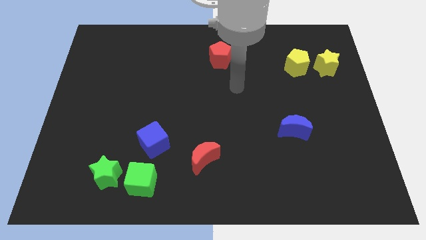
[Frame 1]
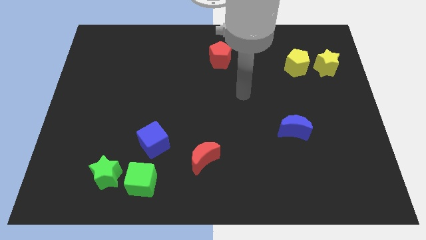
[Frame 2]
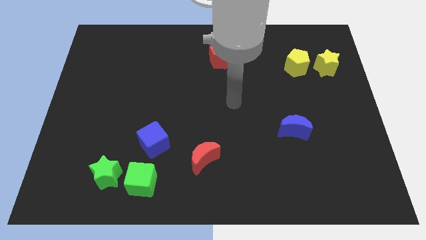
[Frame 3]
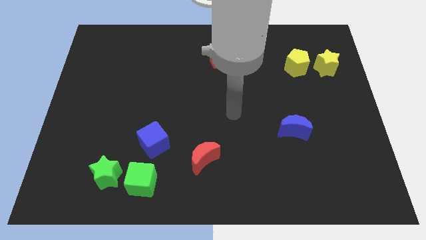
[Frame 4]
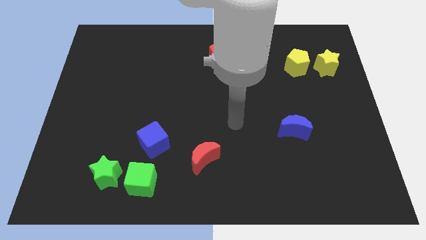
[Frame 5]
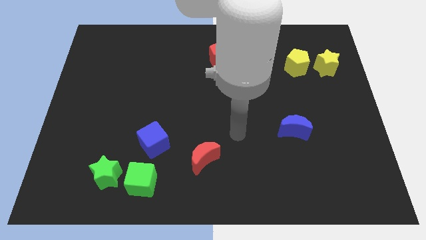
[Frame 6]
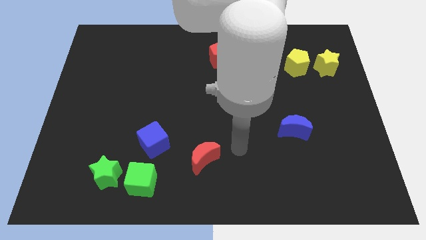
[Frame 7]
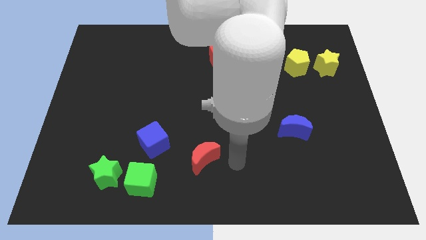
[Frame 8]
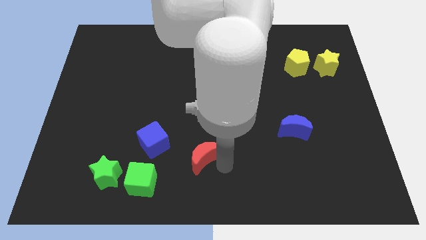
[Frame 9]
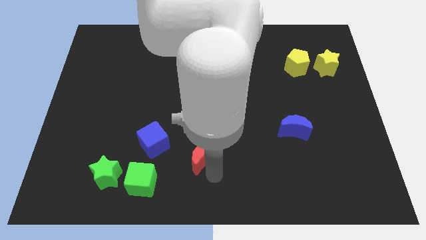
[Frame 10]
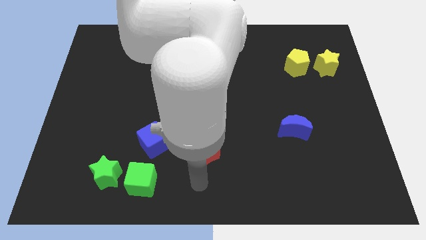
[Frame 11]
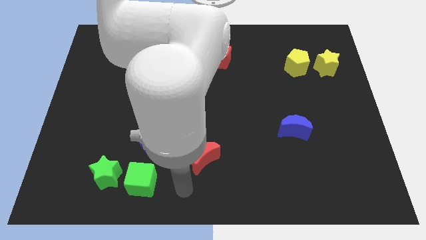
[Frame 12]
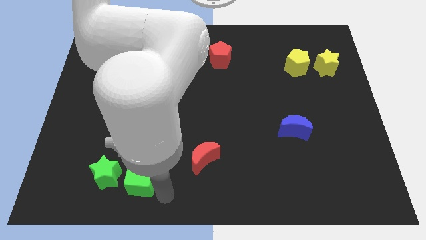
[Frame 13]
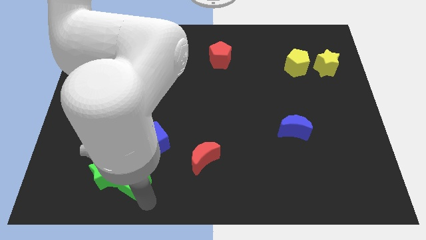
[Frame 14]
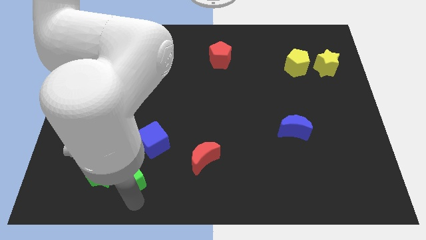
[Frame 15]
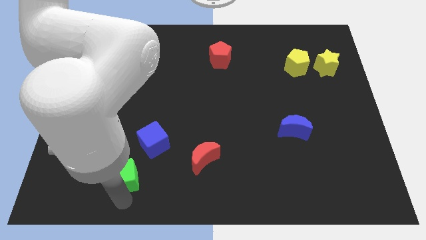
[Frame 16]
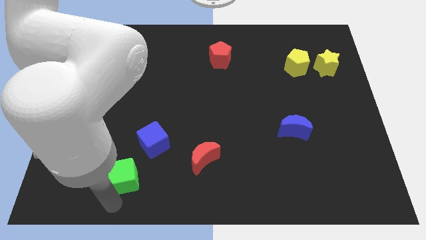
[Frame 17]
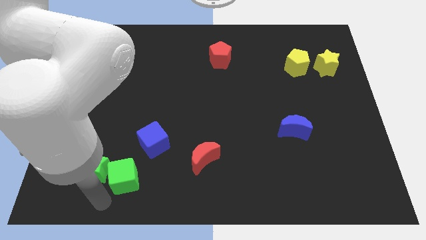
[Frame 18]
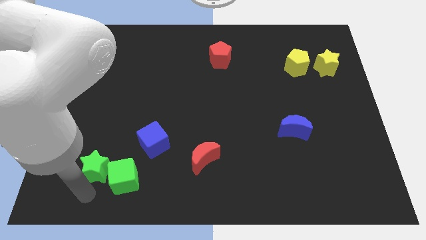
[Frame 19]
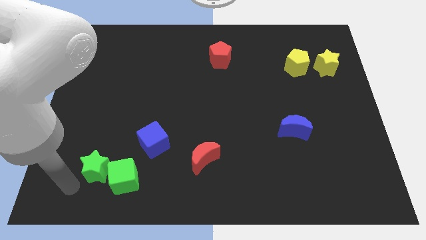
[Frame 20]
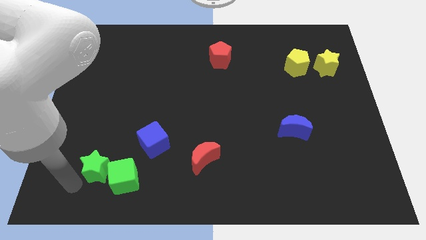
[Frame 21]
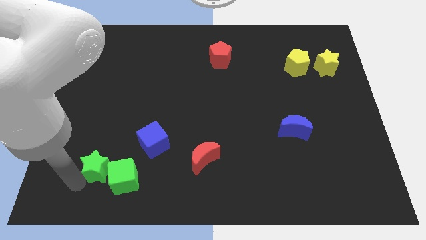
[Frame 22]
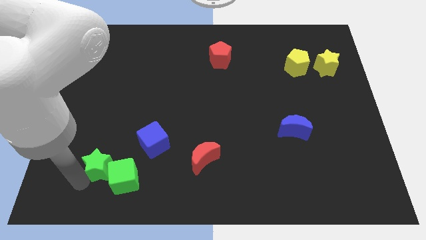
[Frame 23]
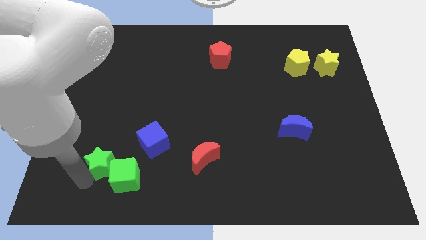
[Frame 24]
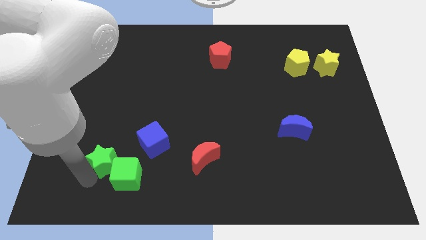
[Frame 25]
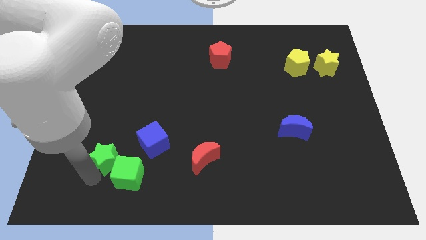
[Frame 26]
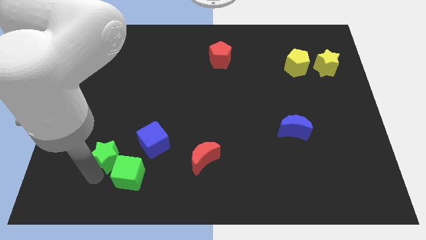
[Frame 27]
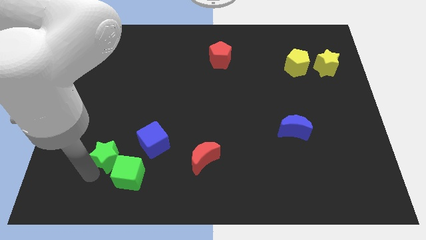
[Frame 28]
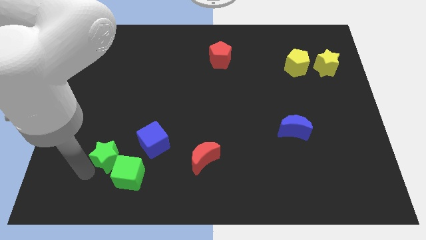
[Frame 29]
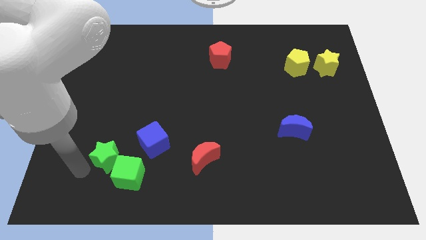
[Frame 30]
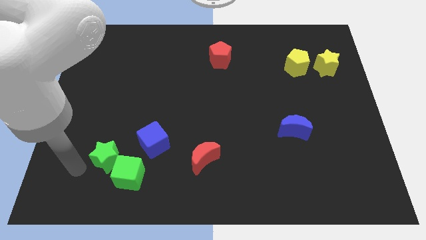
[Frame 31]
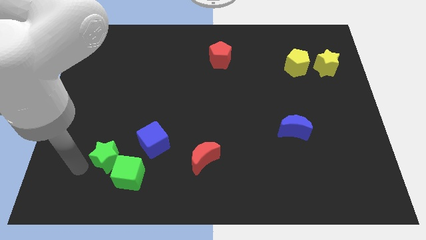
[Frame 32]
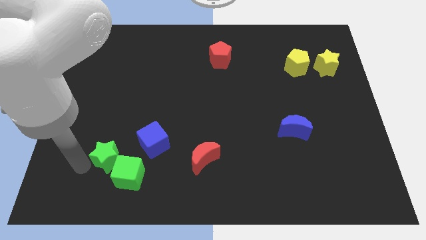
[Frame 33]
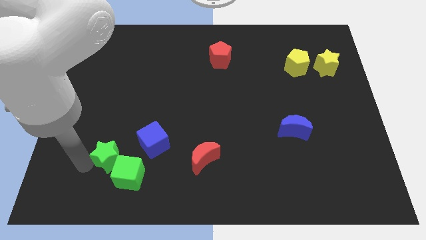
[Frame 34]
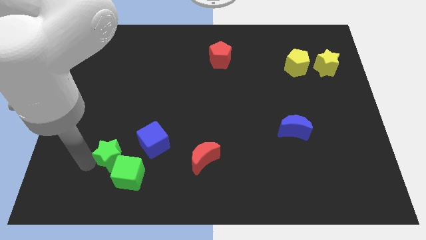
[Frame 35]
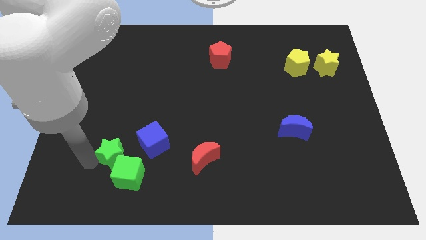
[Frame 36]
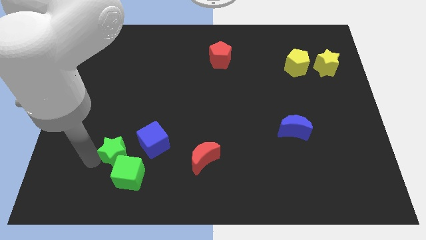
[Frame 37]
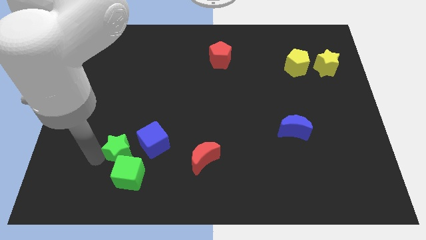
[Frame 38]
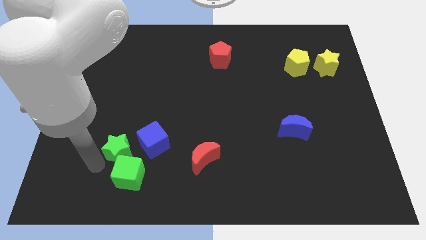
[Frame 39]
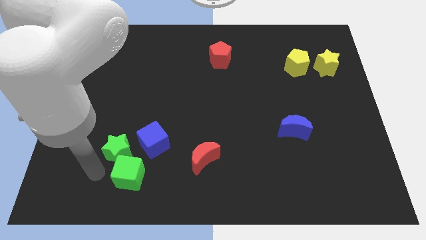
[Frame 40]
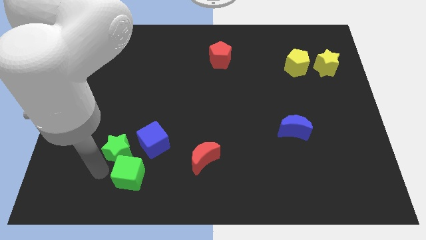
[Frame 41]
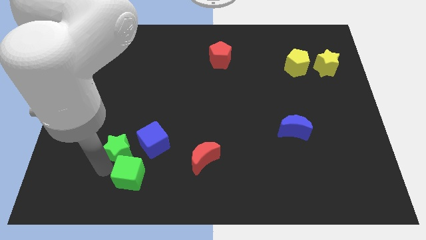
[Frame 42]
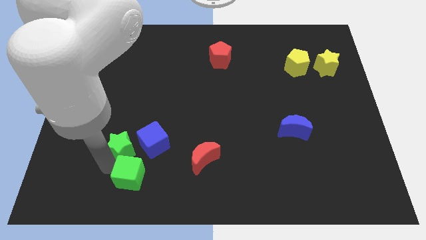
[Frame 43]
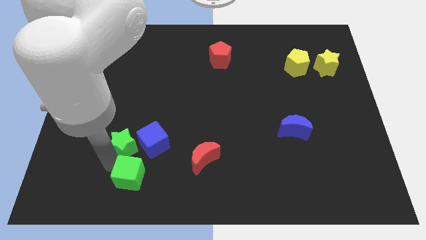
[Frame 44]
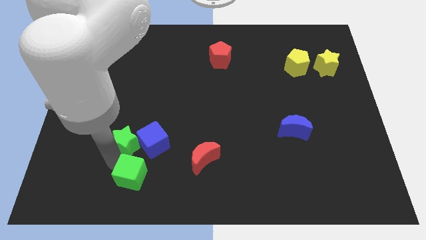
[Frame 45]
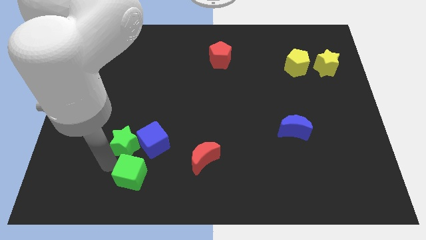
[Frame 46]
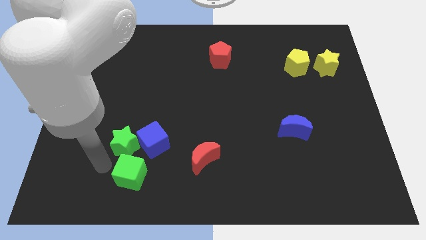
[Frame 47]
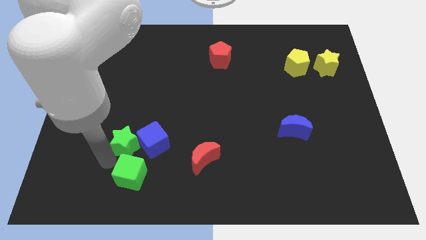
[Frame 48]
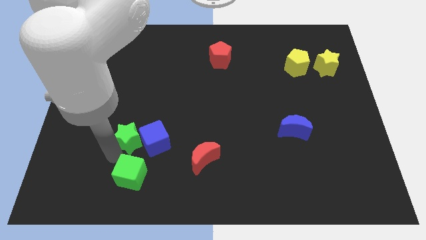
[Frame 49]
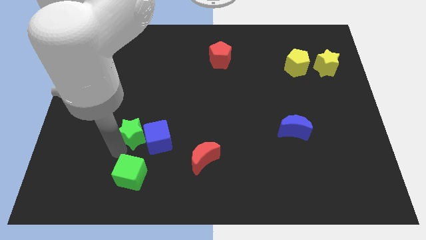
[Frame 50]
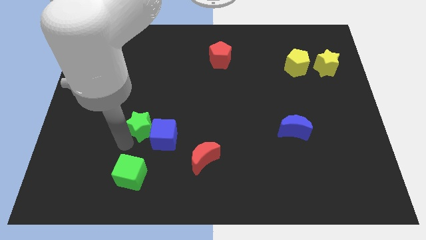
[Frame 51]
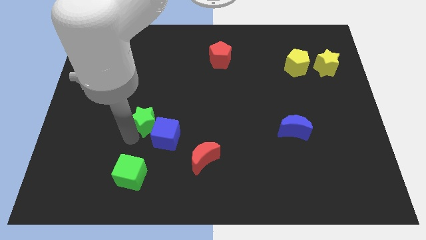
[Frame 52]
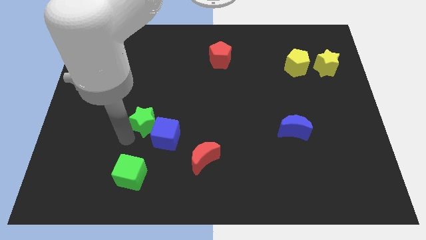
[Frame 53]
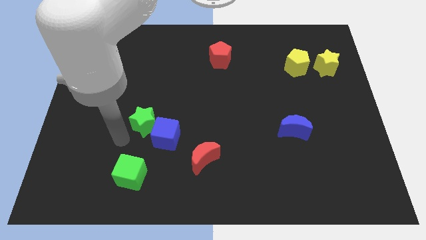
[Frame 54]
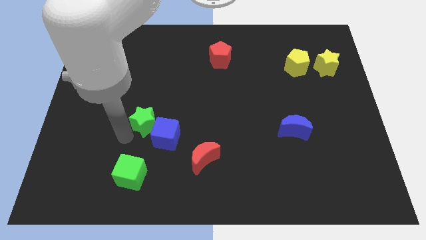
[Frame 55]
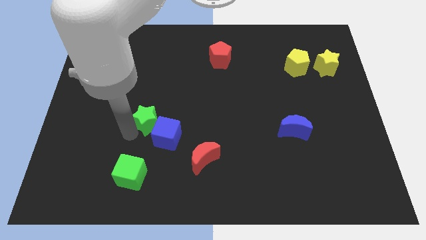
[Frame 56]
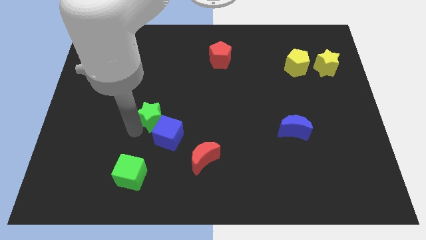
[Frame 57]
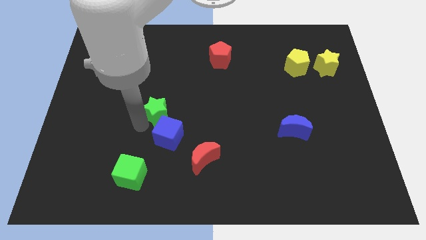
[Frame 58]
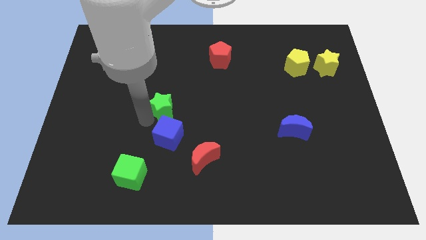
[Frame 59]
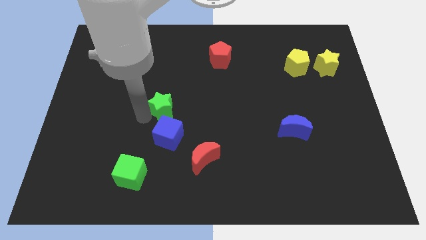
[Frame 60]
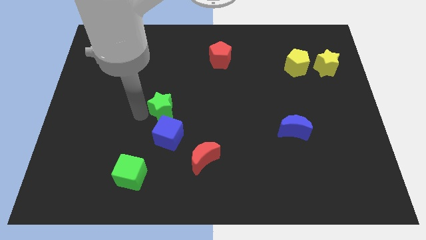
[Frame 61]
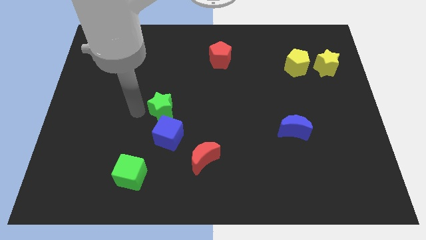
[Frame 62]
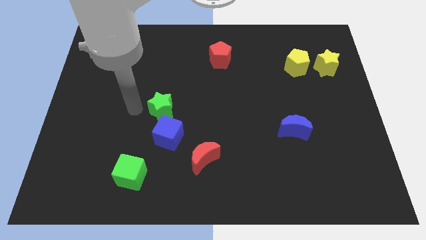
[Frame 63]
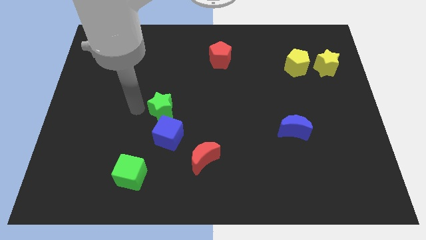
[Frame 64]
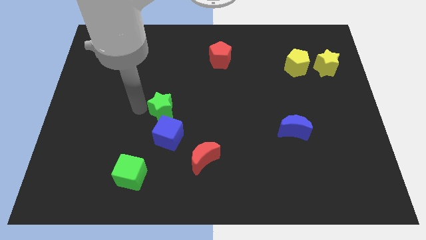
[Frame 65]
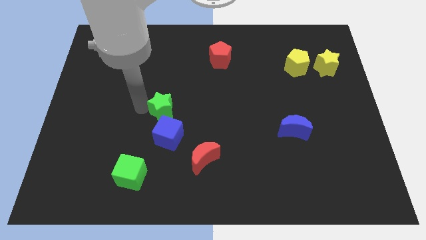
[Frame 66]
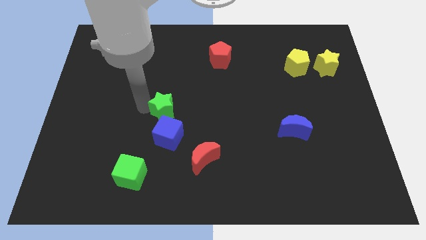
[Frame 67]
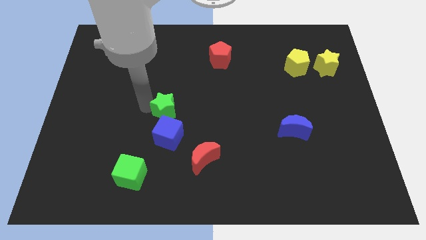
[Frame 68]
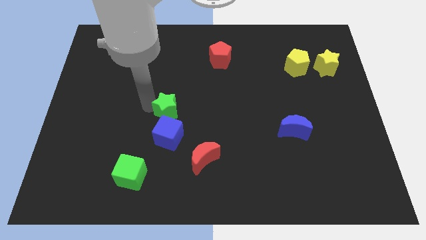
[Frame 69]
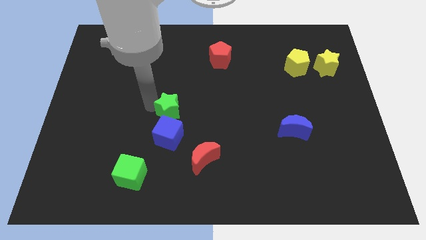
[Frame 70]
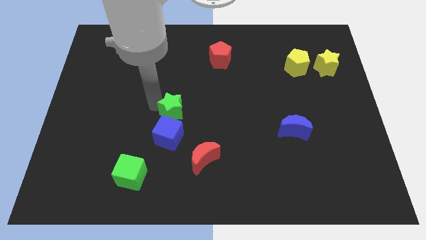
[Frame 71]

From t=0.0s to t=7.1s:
push the green star diagonally upwards and right

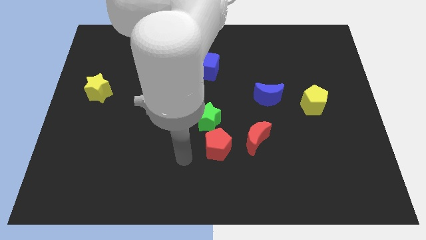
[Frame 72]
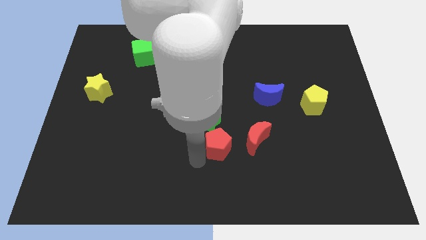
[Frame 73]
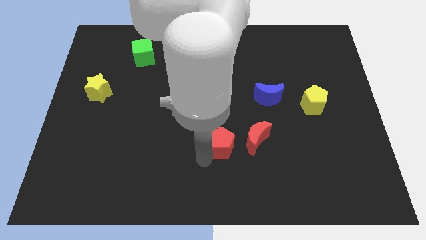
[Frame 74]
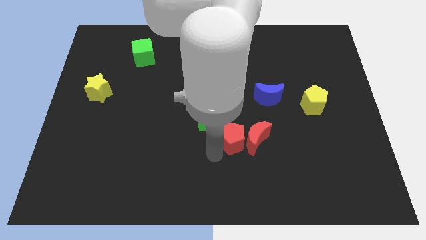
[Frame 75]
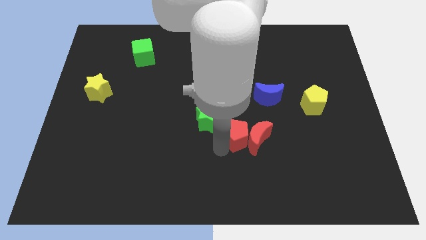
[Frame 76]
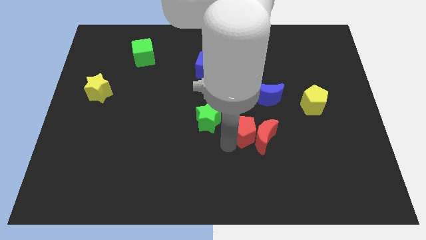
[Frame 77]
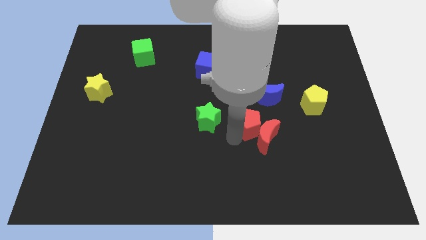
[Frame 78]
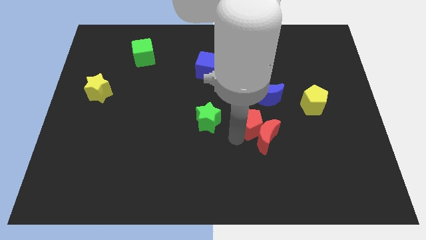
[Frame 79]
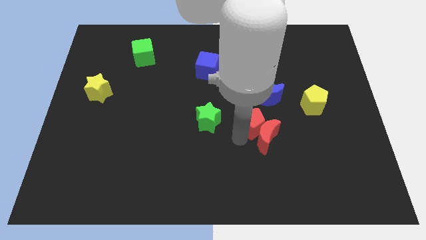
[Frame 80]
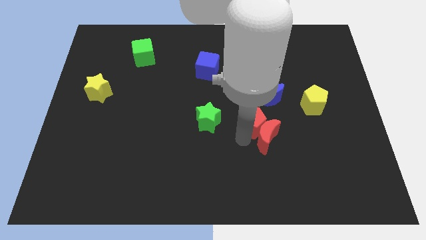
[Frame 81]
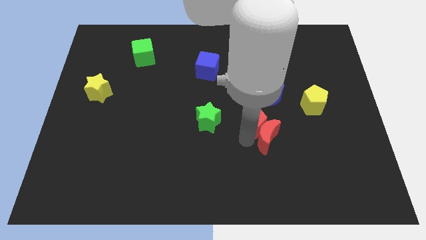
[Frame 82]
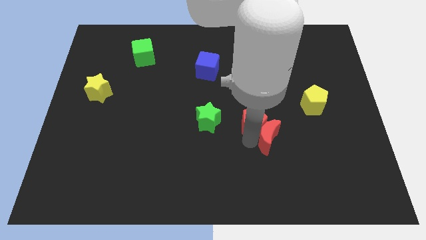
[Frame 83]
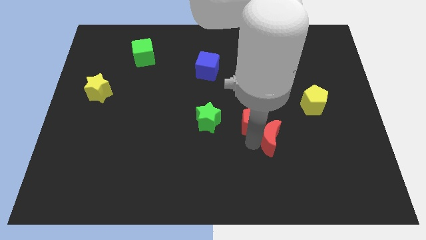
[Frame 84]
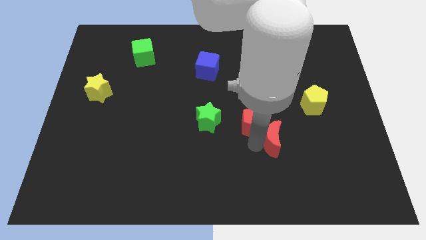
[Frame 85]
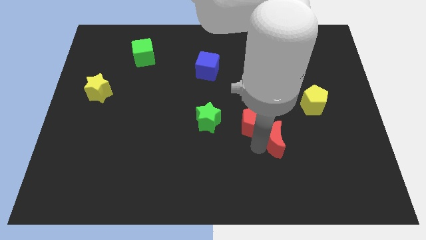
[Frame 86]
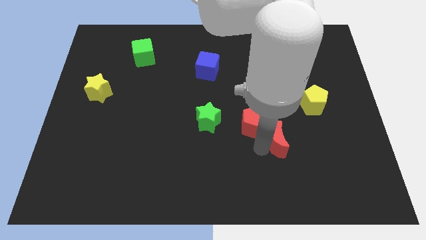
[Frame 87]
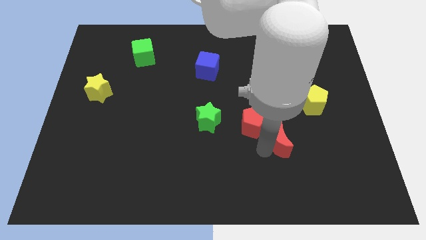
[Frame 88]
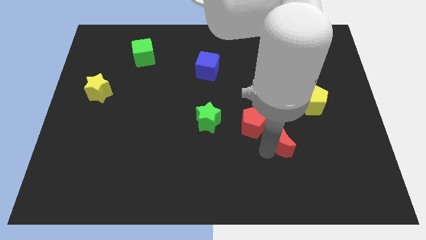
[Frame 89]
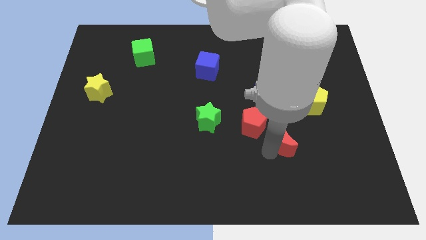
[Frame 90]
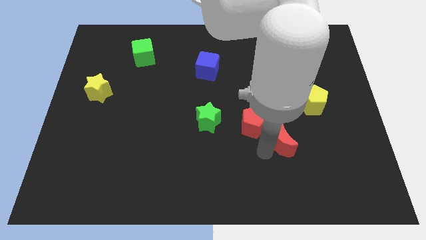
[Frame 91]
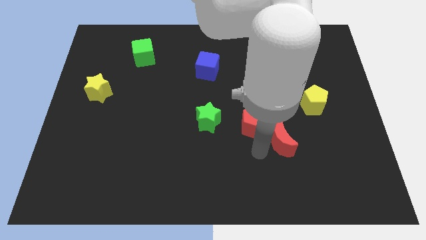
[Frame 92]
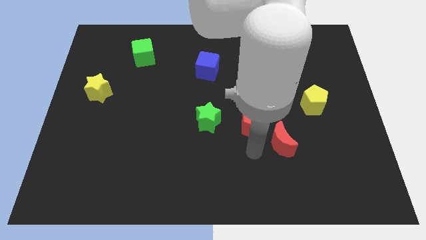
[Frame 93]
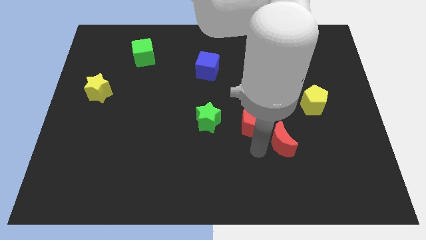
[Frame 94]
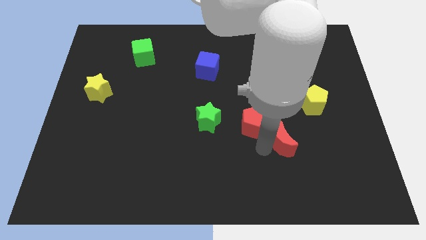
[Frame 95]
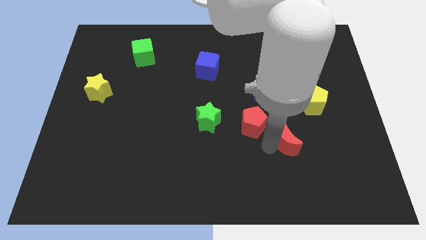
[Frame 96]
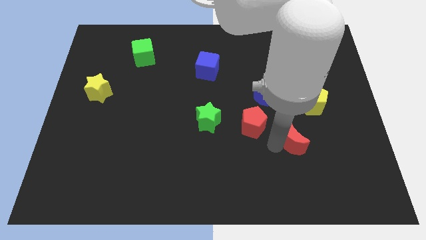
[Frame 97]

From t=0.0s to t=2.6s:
slide the red moon to the right a little
